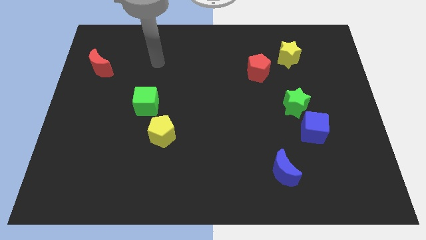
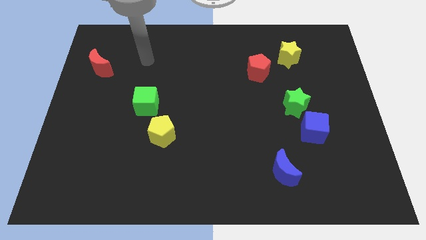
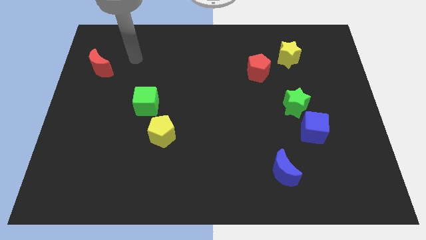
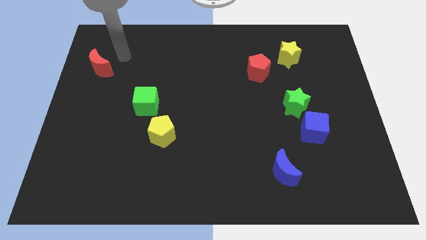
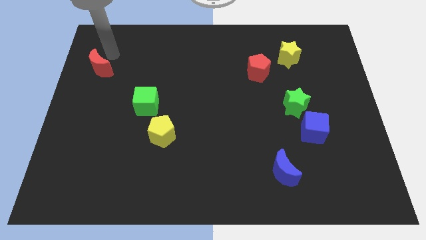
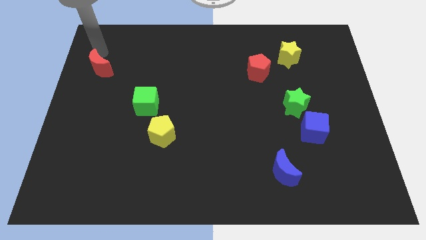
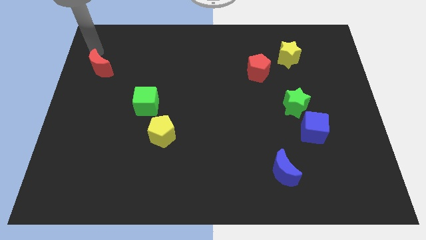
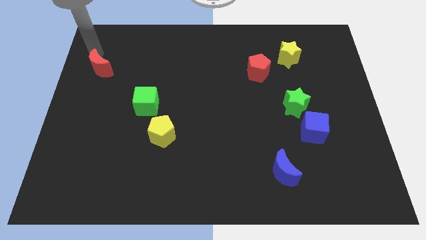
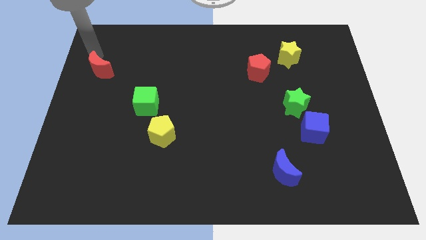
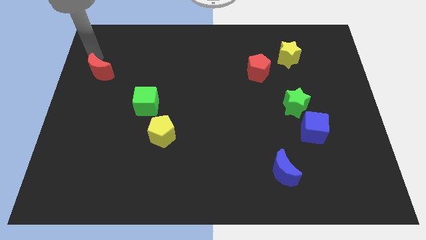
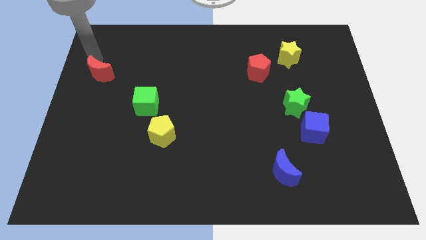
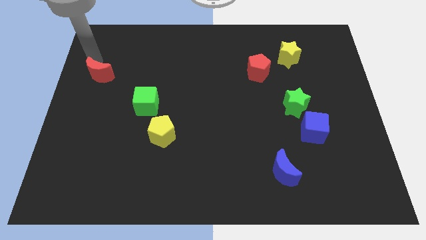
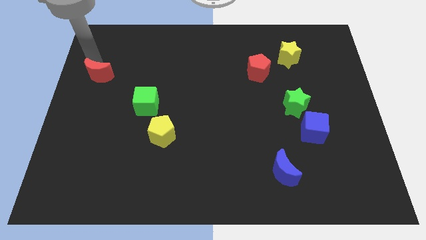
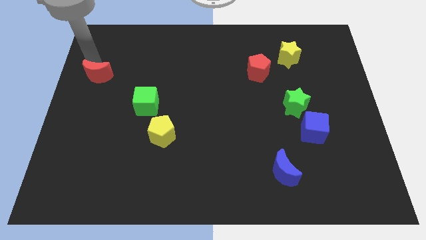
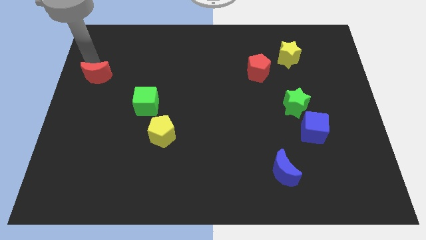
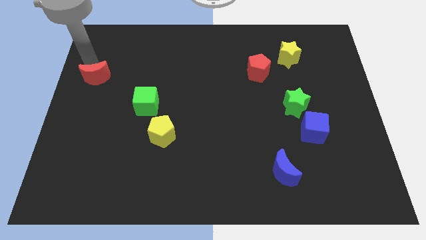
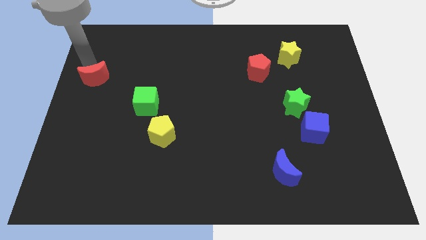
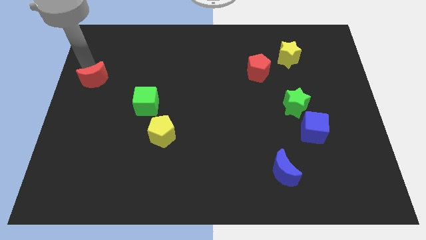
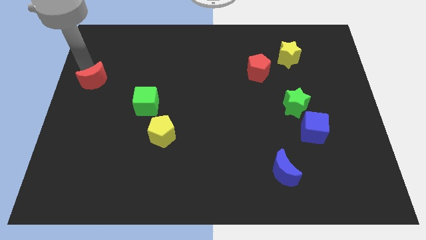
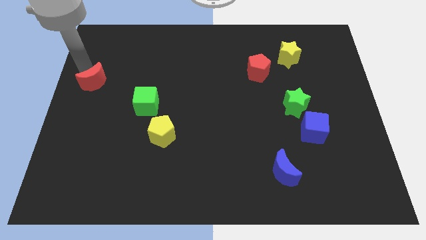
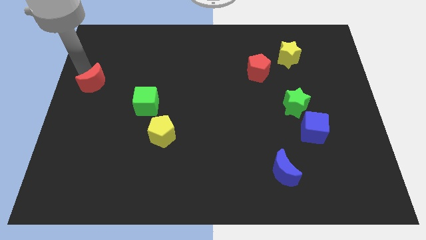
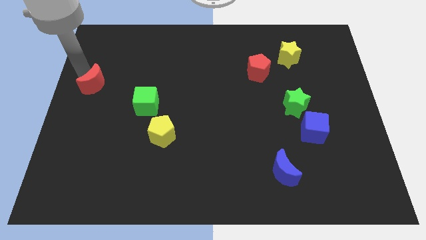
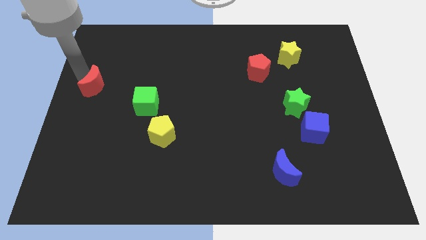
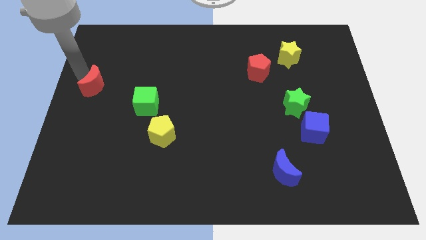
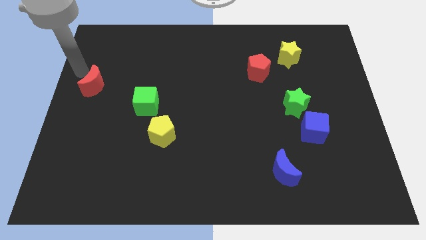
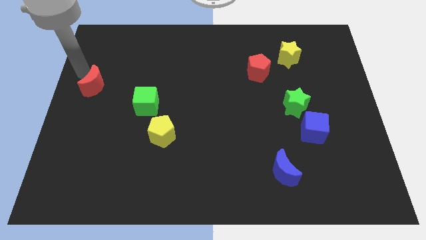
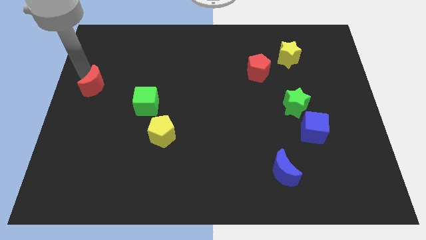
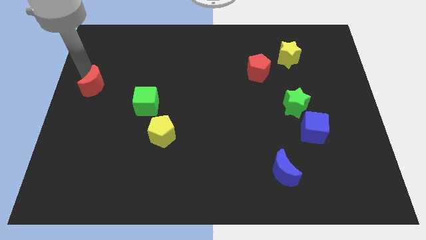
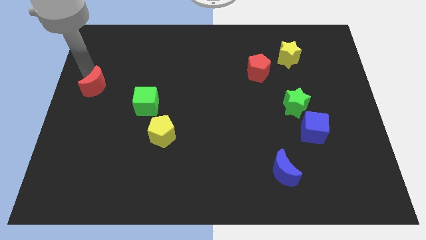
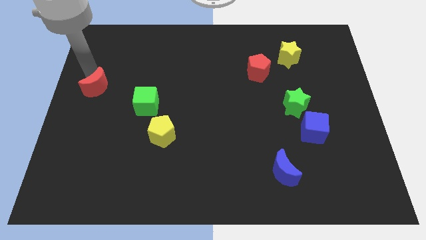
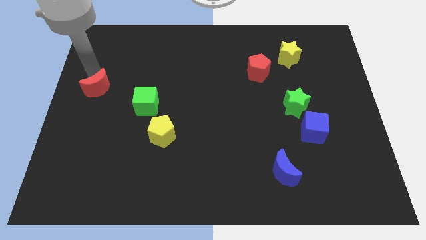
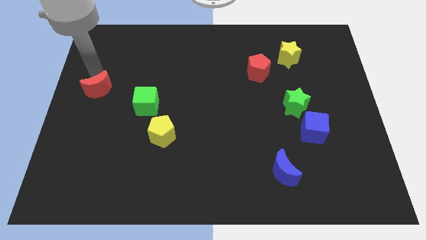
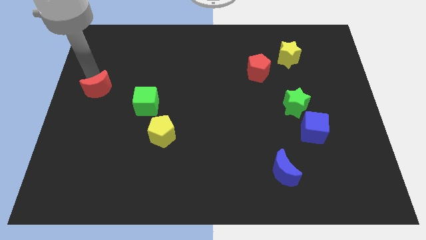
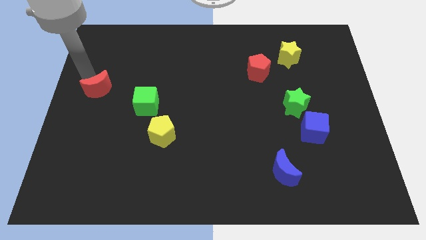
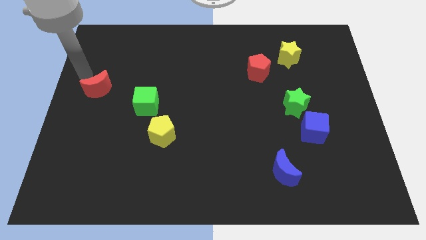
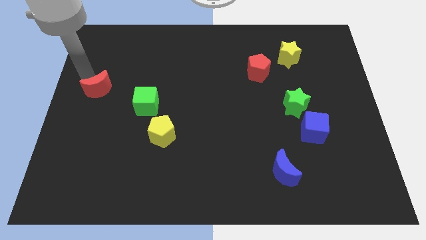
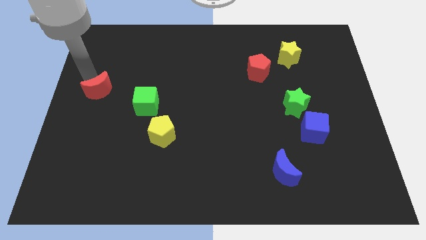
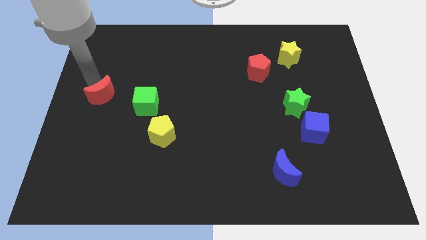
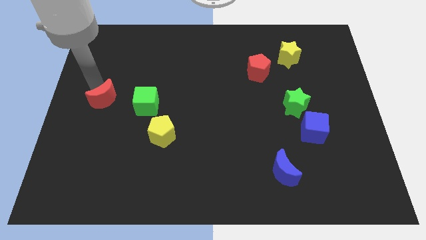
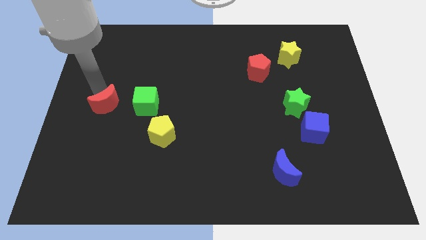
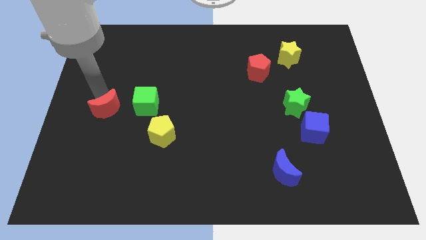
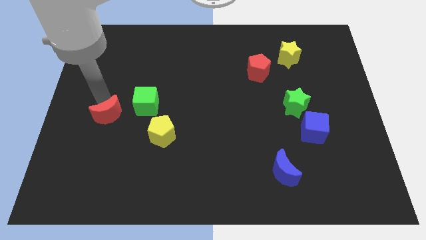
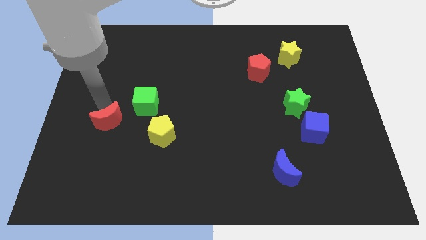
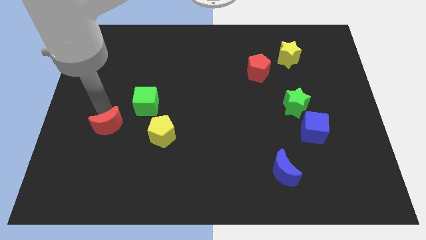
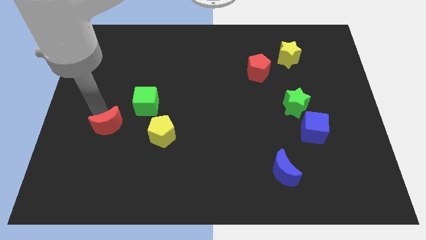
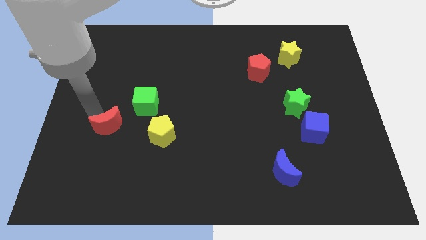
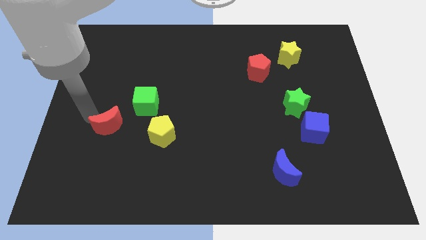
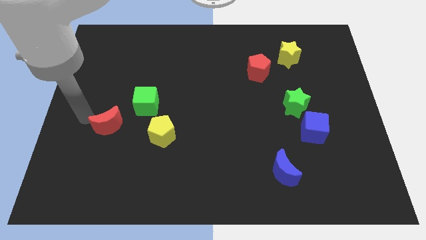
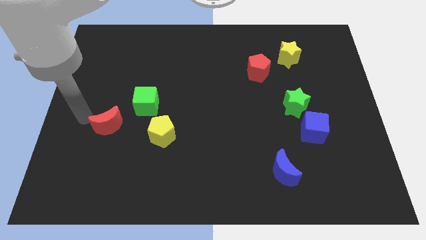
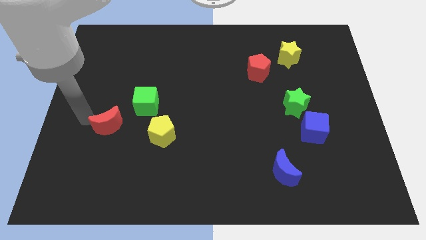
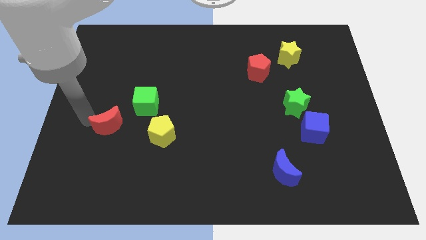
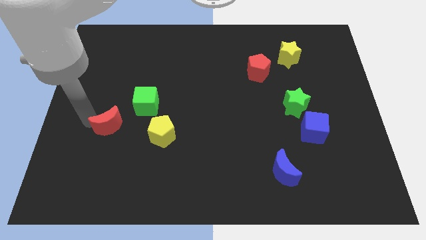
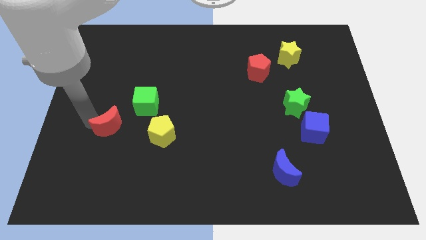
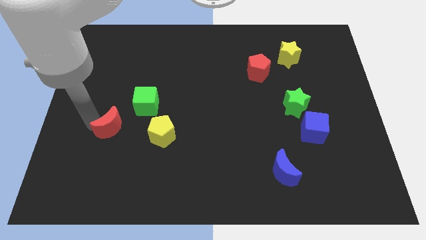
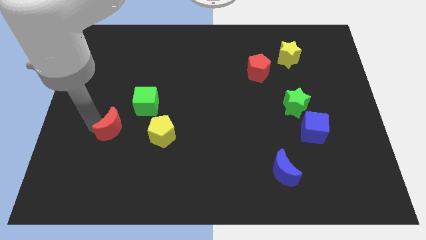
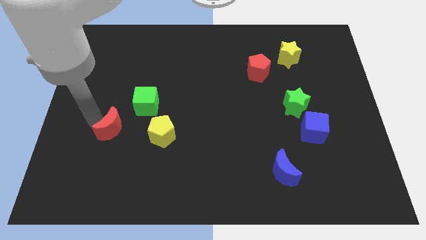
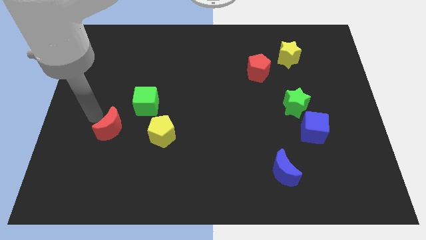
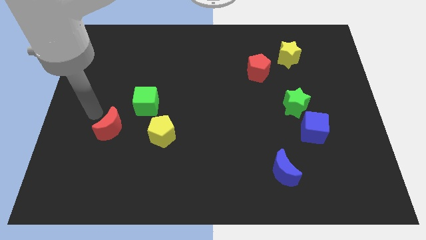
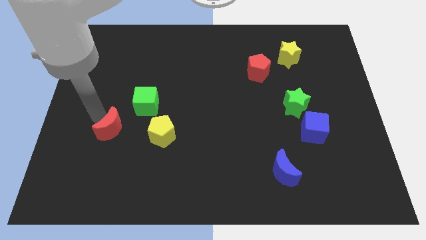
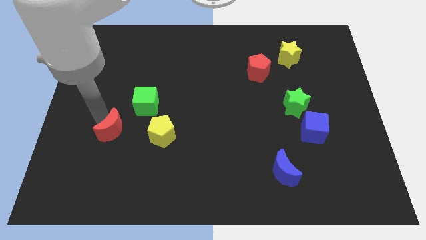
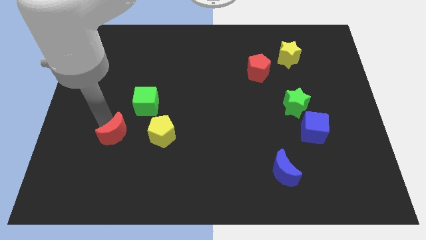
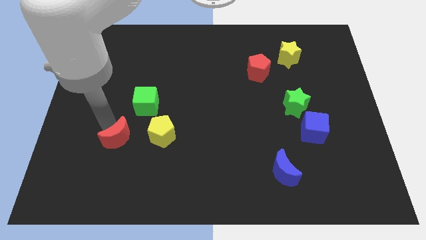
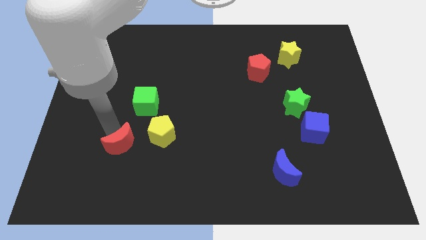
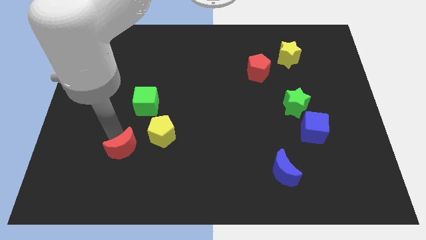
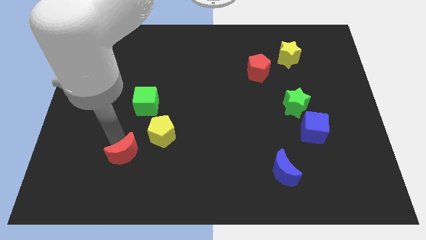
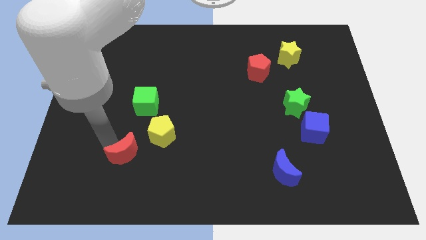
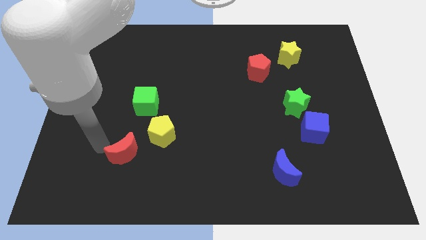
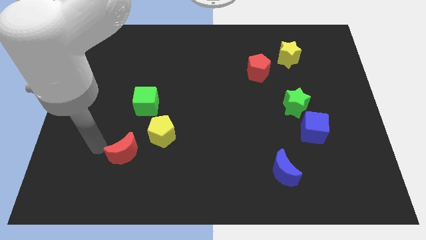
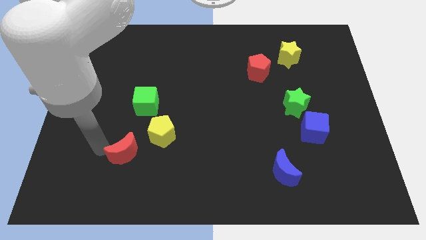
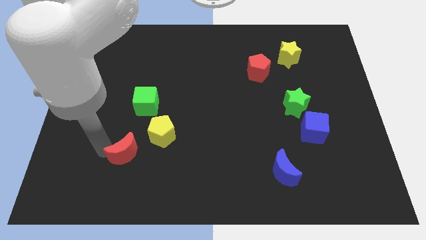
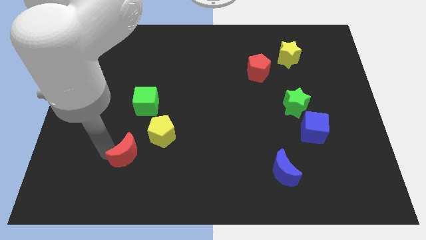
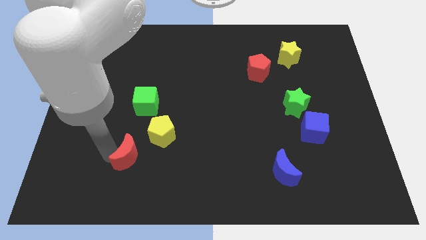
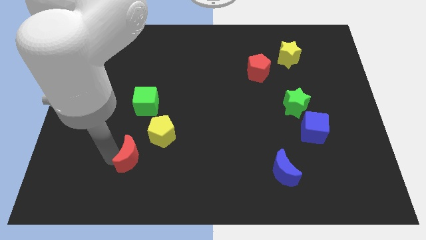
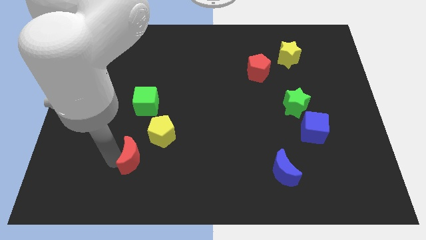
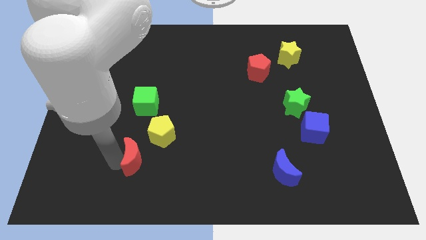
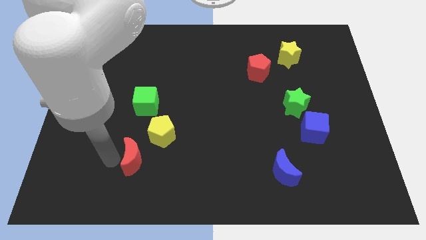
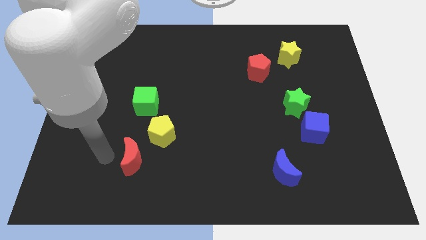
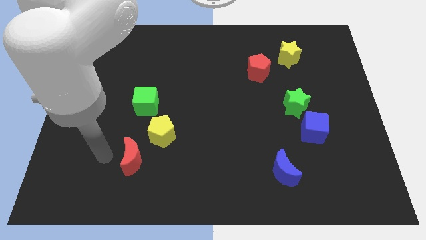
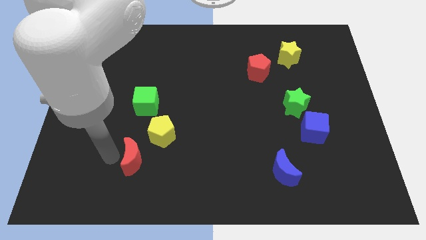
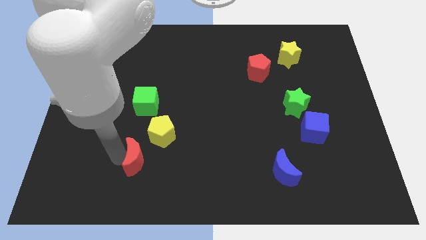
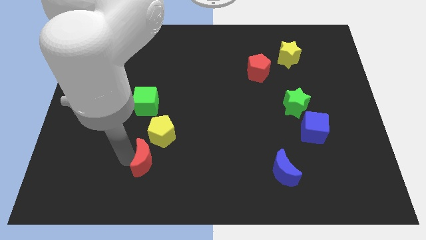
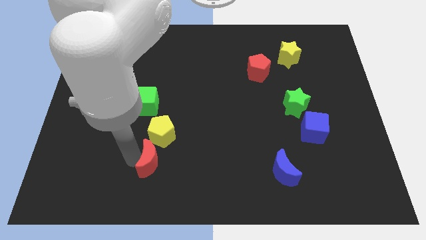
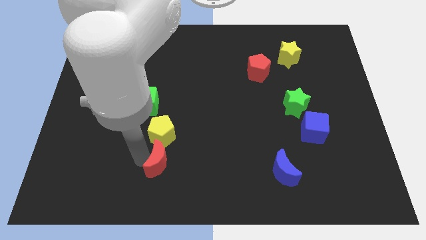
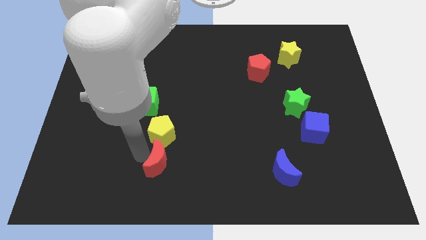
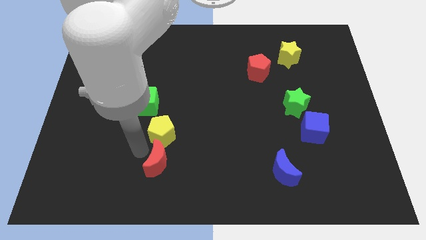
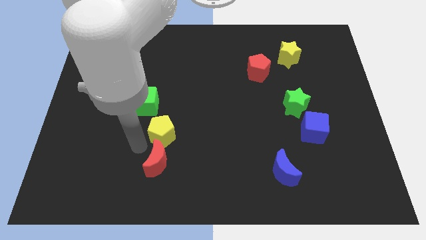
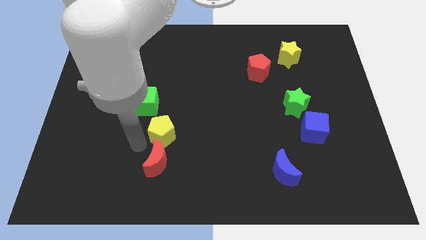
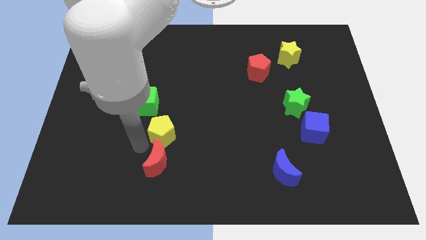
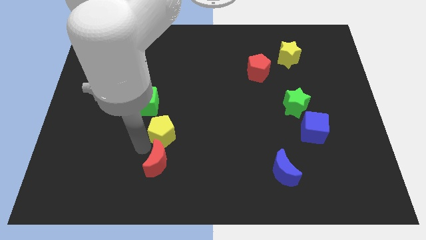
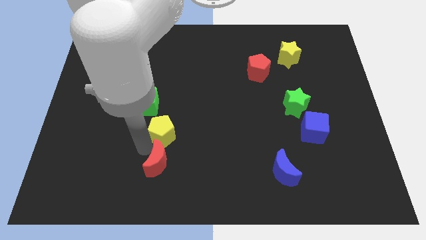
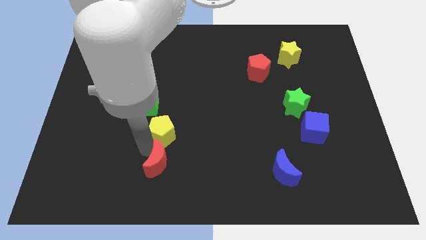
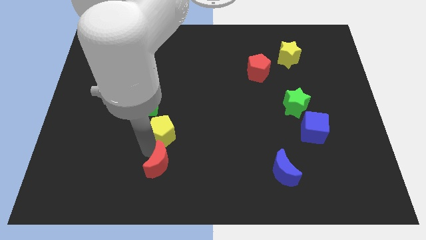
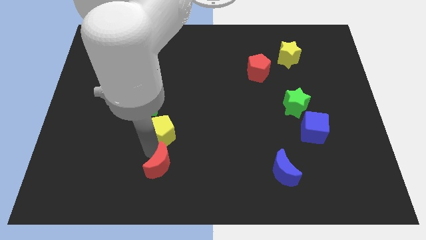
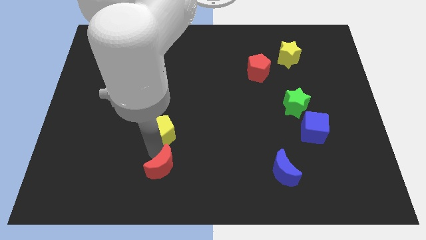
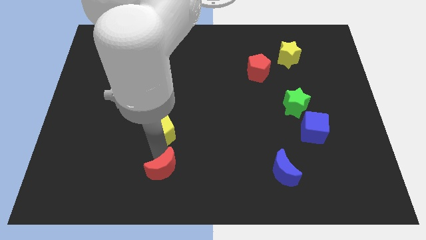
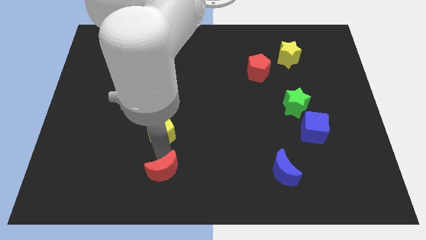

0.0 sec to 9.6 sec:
push the red moon to the bottom
